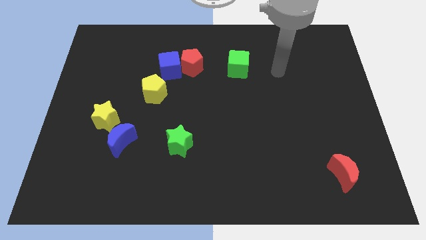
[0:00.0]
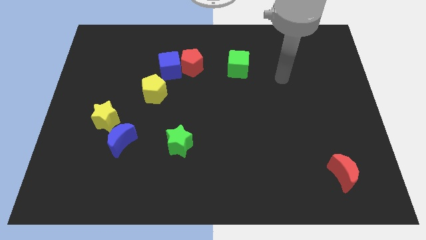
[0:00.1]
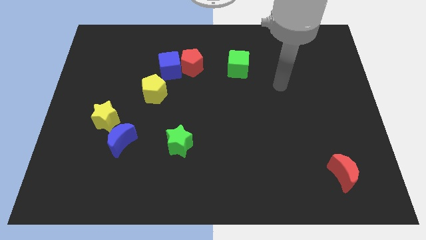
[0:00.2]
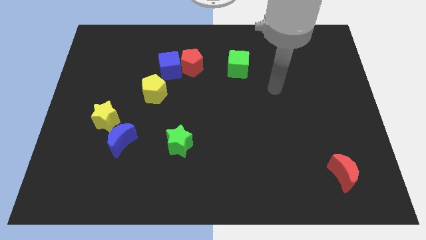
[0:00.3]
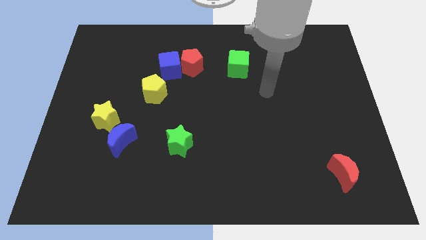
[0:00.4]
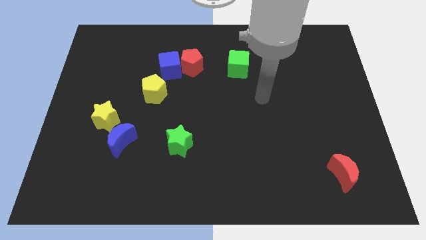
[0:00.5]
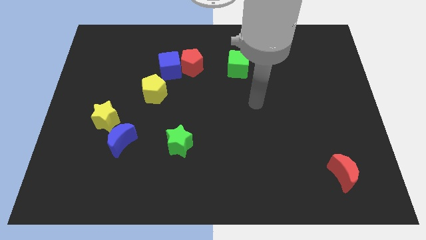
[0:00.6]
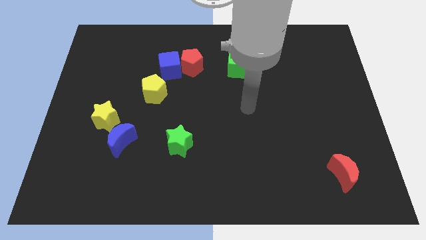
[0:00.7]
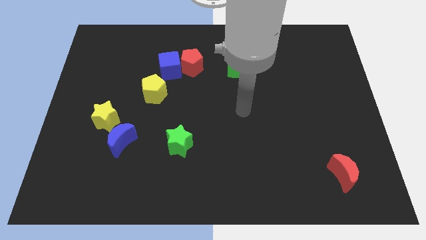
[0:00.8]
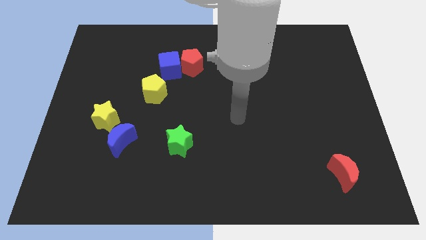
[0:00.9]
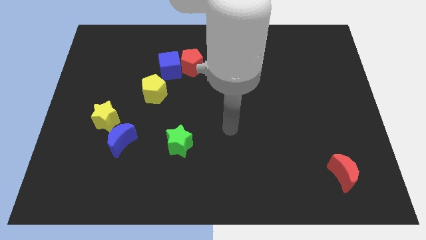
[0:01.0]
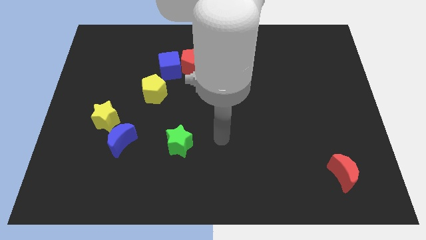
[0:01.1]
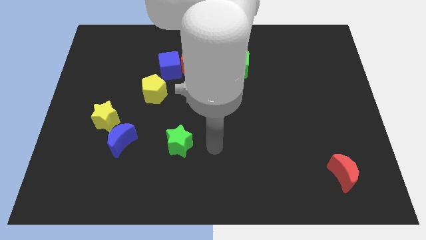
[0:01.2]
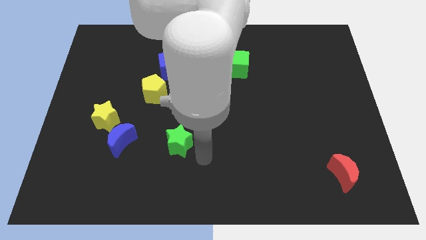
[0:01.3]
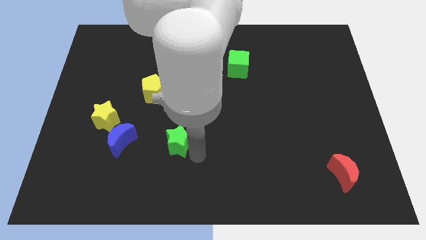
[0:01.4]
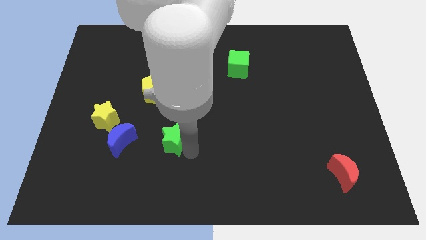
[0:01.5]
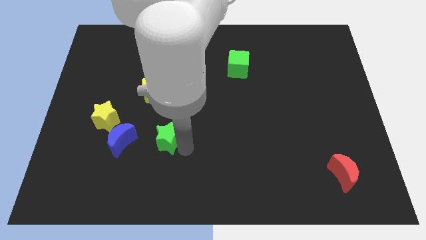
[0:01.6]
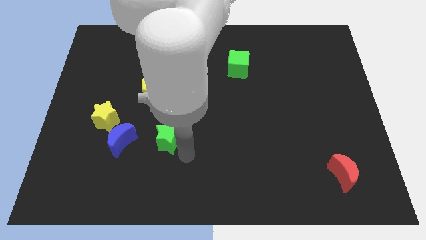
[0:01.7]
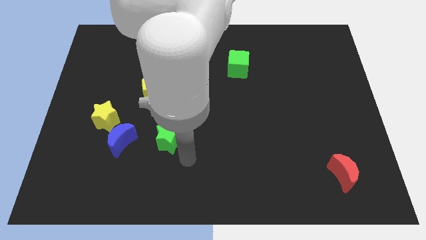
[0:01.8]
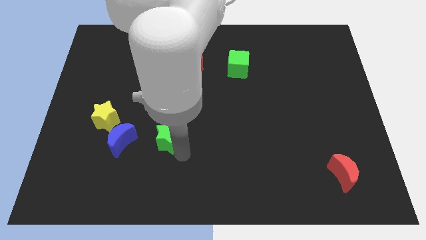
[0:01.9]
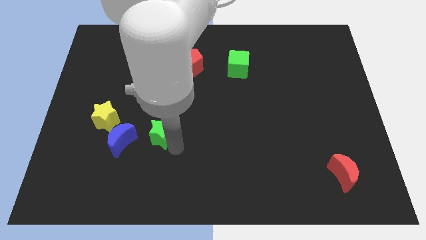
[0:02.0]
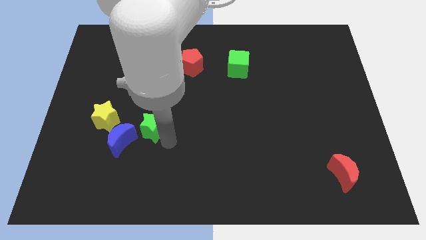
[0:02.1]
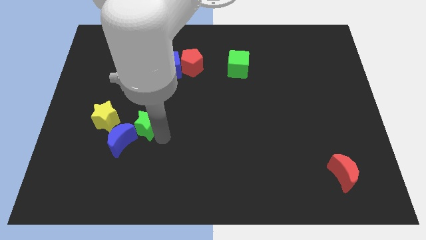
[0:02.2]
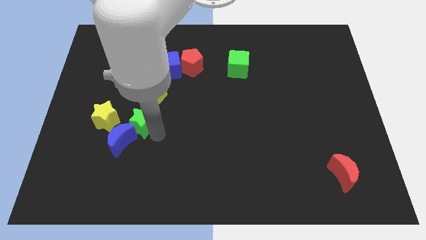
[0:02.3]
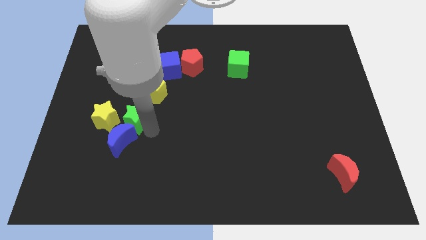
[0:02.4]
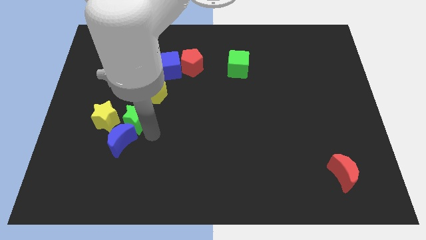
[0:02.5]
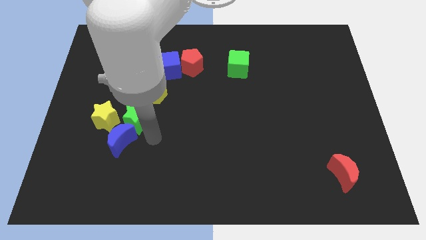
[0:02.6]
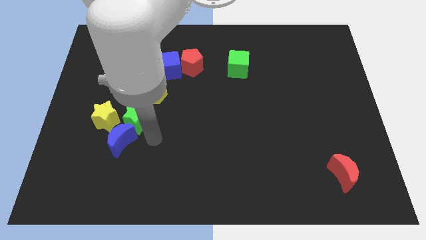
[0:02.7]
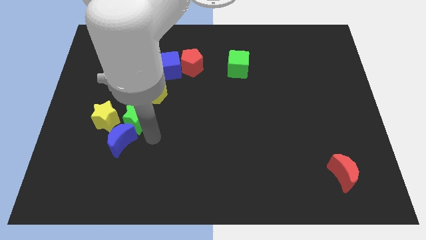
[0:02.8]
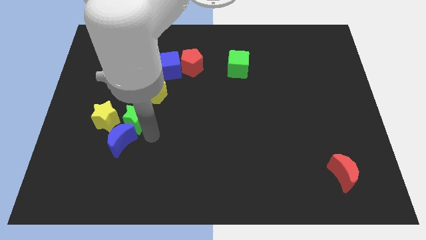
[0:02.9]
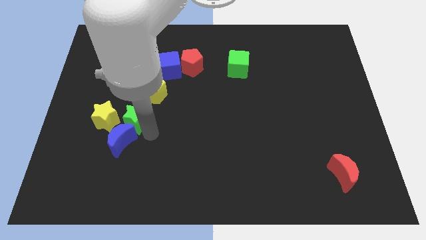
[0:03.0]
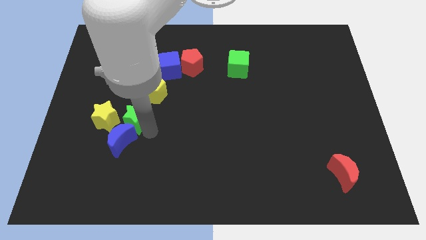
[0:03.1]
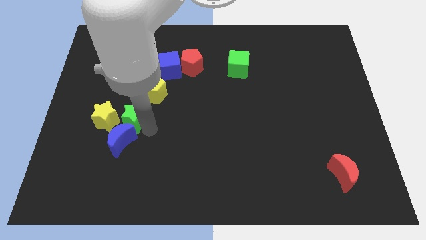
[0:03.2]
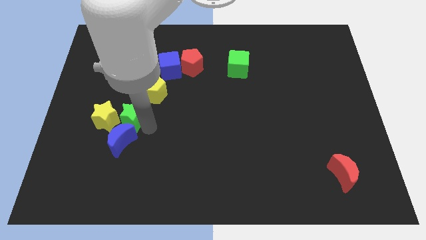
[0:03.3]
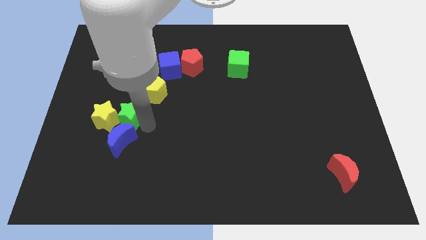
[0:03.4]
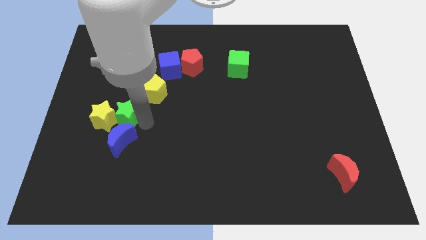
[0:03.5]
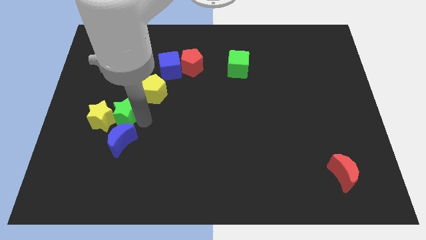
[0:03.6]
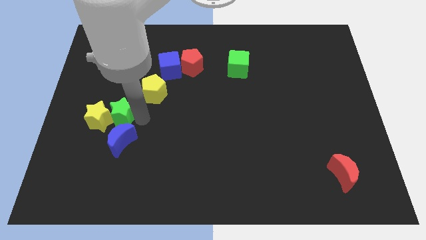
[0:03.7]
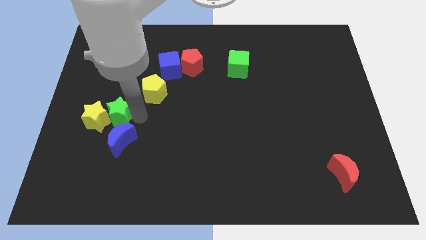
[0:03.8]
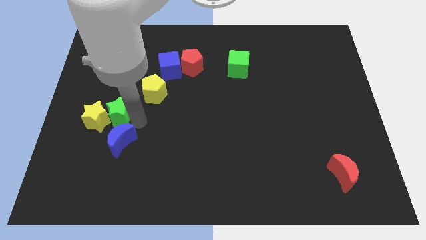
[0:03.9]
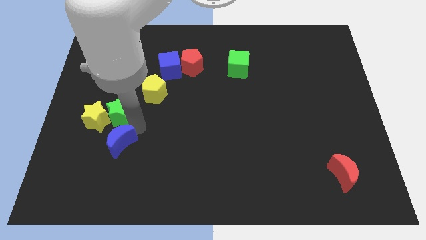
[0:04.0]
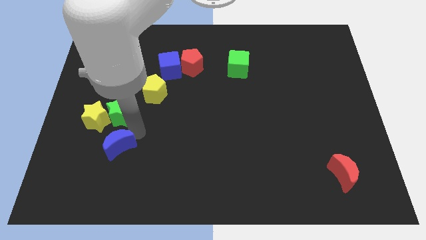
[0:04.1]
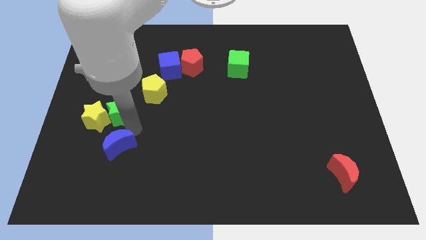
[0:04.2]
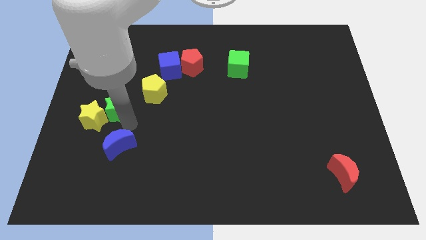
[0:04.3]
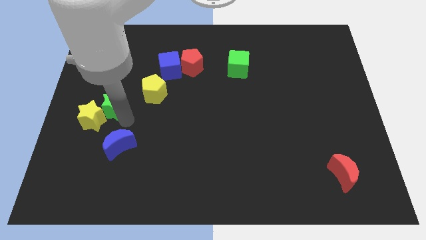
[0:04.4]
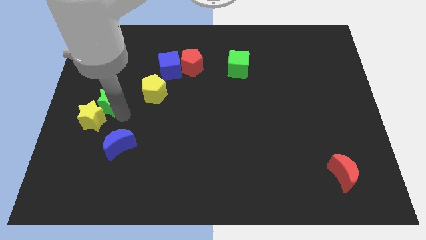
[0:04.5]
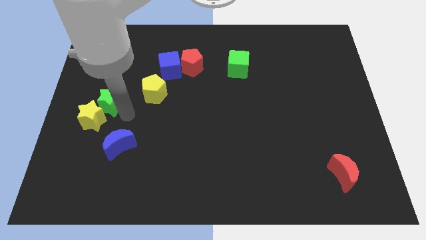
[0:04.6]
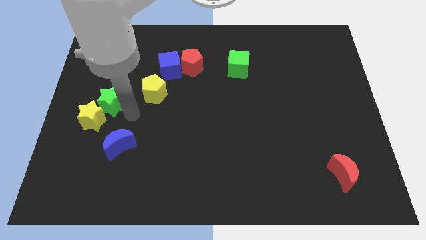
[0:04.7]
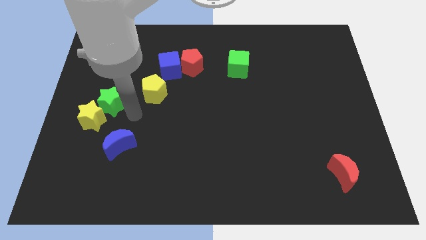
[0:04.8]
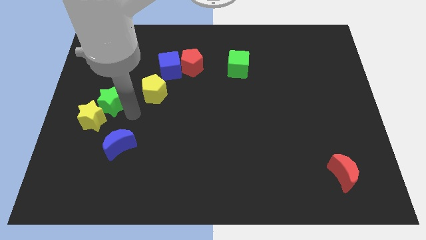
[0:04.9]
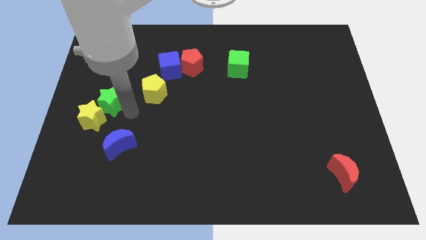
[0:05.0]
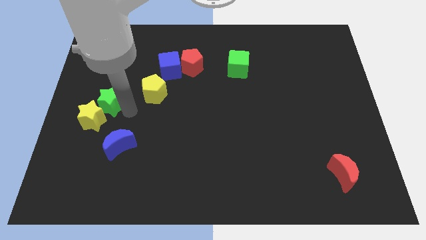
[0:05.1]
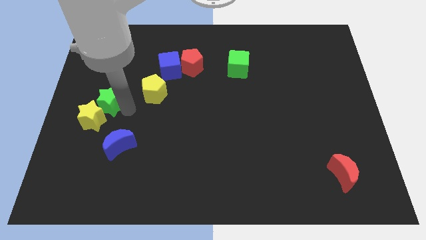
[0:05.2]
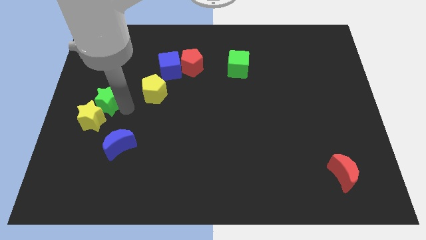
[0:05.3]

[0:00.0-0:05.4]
put the green star to the left side

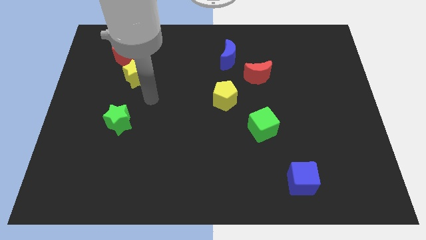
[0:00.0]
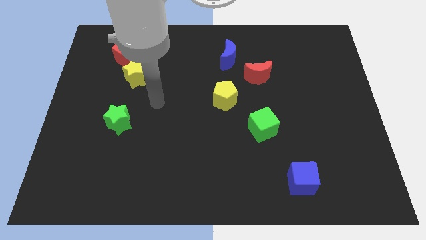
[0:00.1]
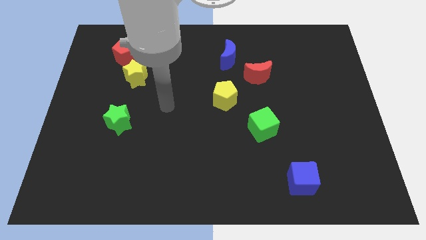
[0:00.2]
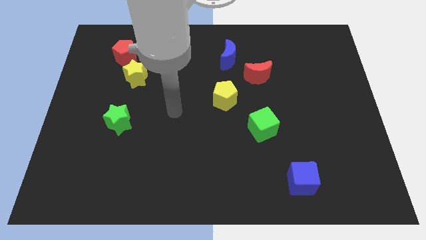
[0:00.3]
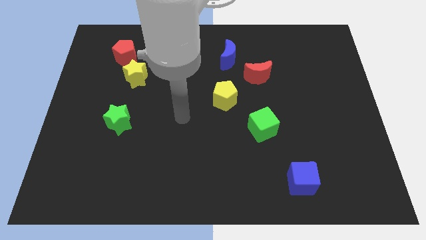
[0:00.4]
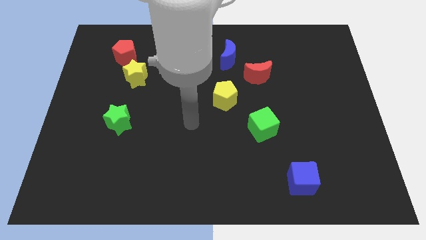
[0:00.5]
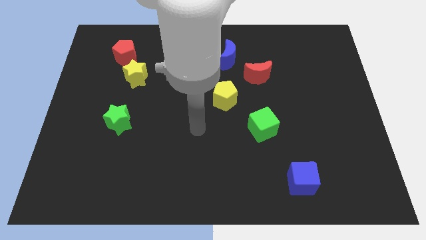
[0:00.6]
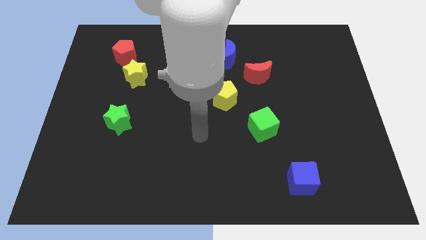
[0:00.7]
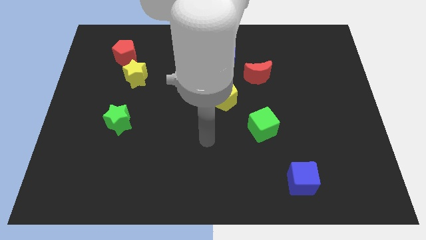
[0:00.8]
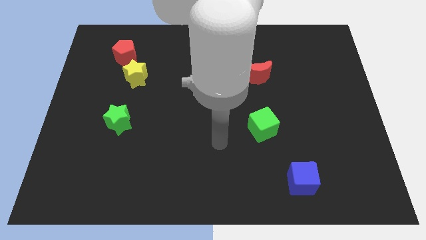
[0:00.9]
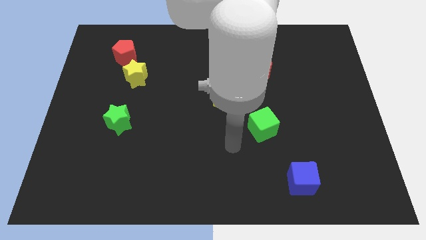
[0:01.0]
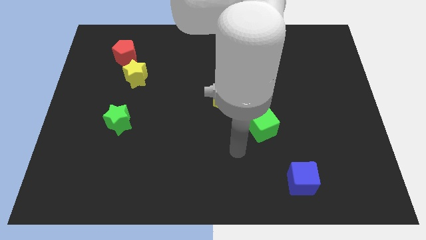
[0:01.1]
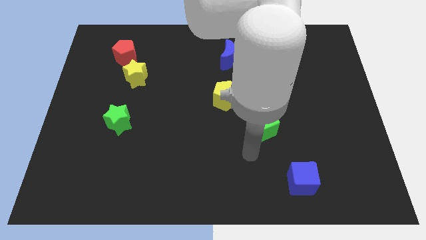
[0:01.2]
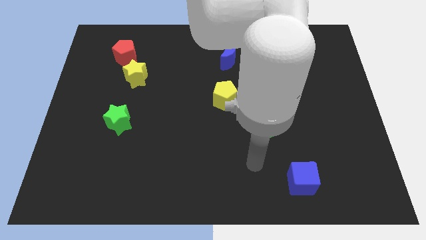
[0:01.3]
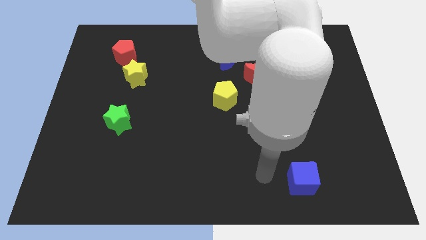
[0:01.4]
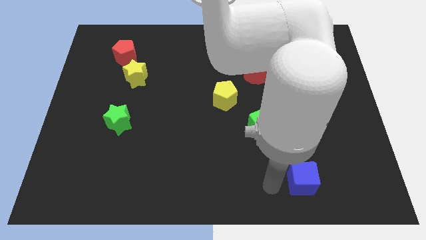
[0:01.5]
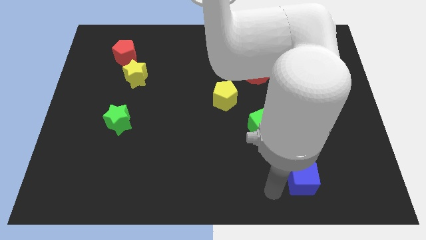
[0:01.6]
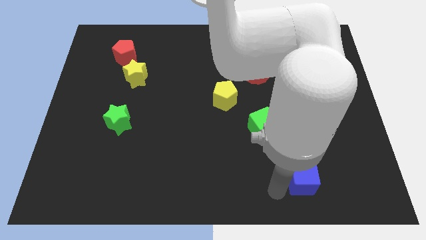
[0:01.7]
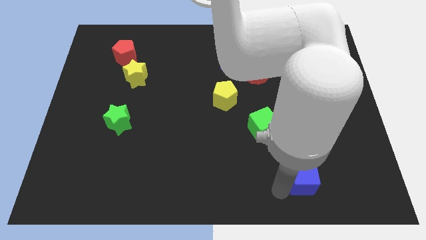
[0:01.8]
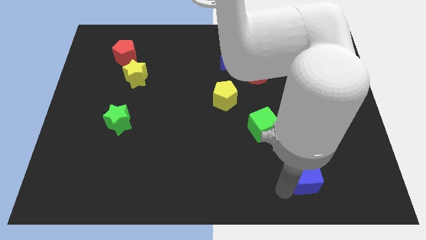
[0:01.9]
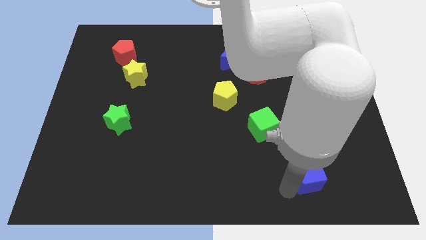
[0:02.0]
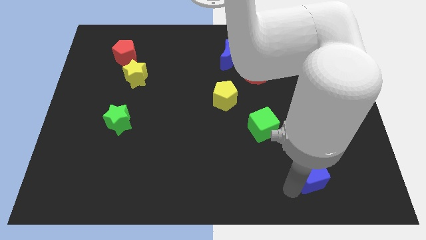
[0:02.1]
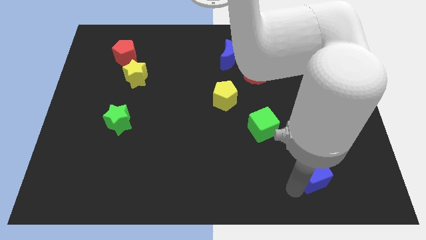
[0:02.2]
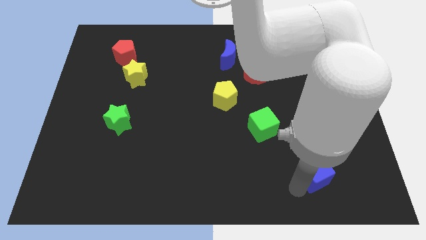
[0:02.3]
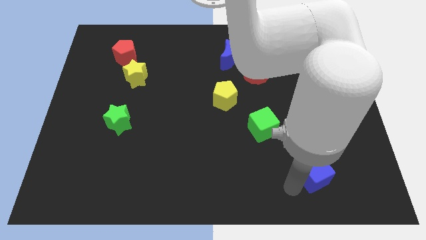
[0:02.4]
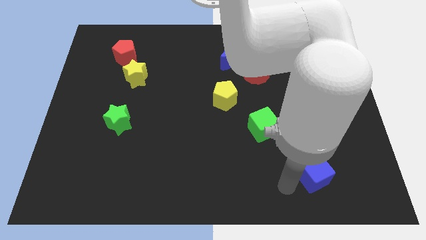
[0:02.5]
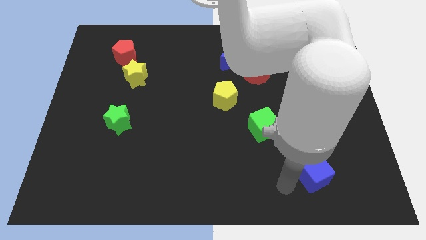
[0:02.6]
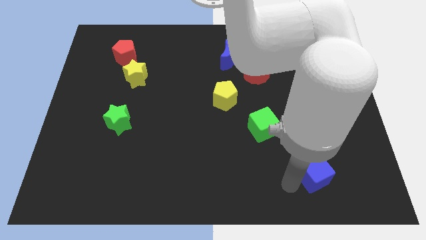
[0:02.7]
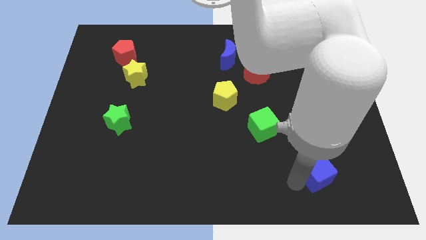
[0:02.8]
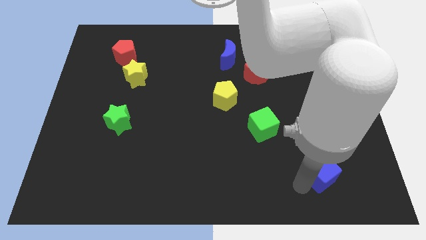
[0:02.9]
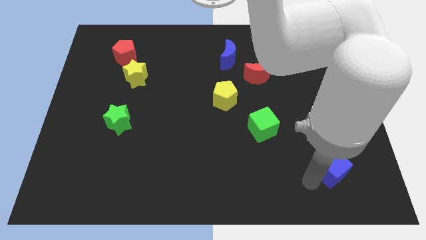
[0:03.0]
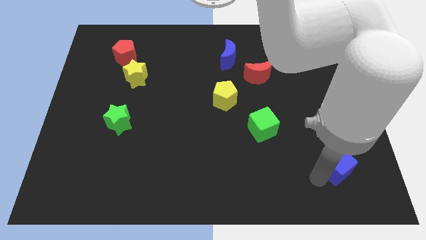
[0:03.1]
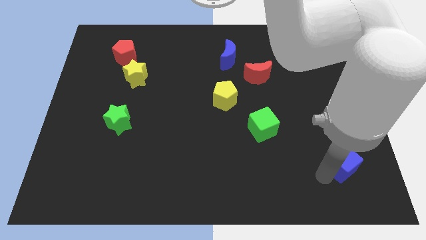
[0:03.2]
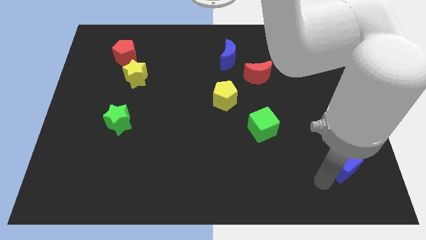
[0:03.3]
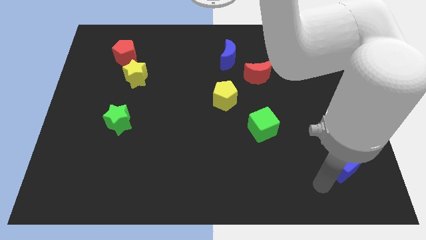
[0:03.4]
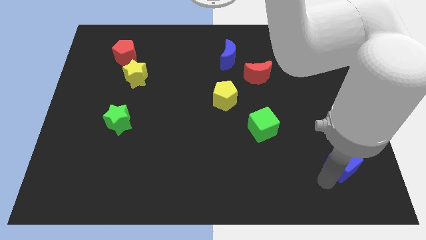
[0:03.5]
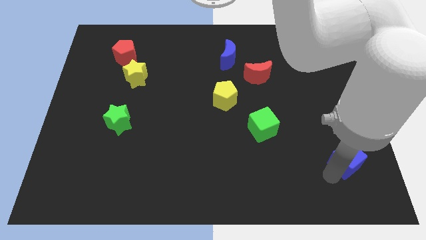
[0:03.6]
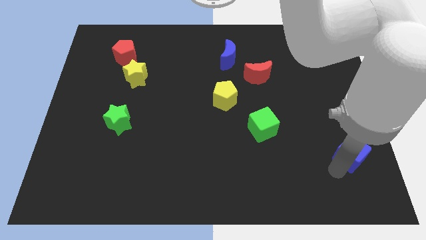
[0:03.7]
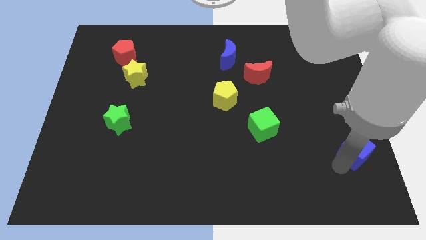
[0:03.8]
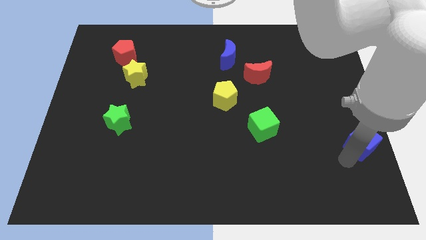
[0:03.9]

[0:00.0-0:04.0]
slide the blue cube to the right side
